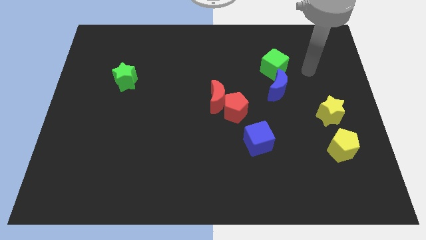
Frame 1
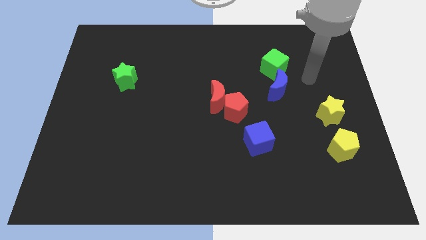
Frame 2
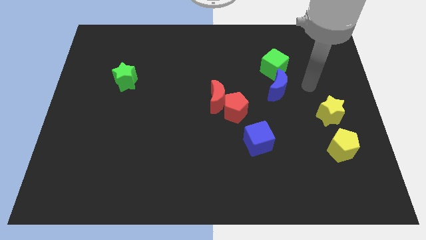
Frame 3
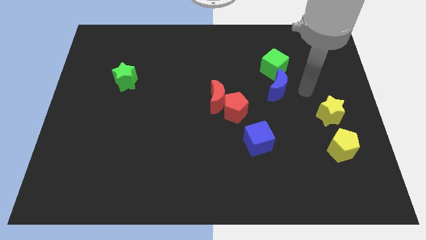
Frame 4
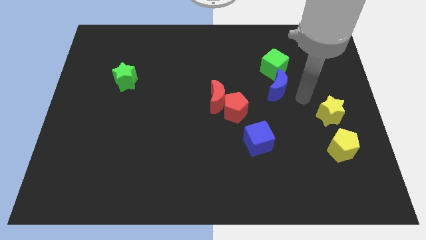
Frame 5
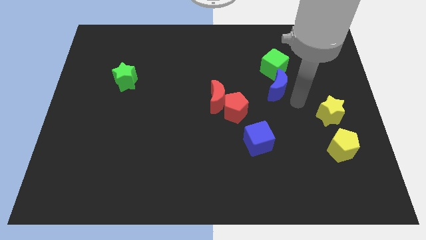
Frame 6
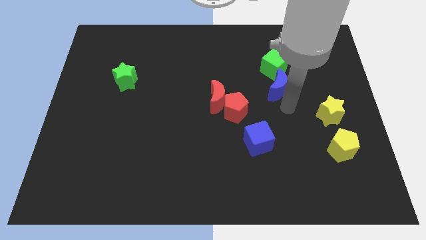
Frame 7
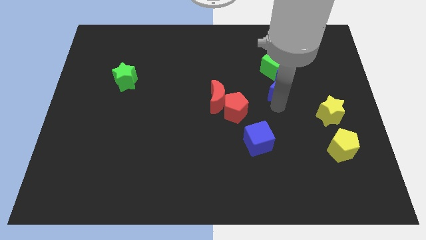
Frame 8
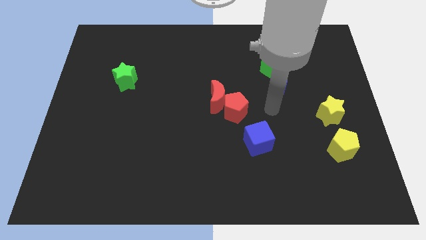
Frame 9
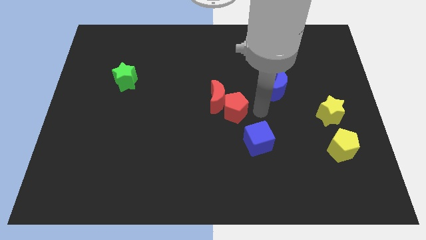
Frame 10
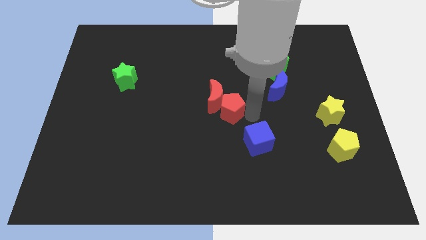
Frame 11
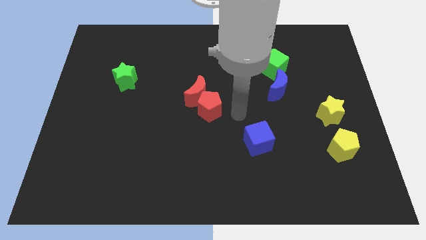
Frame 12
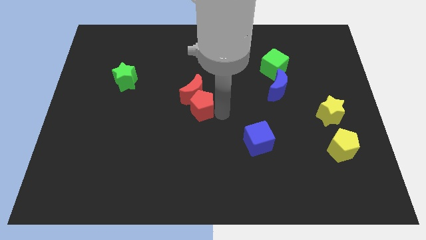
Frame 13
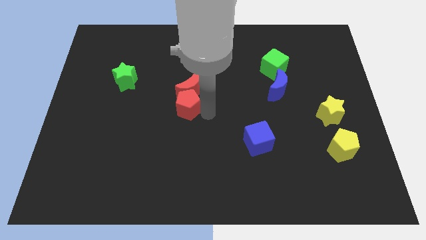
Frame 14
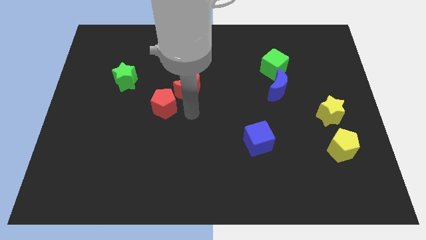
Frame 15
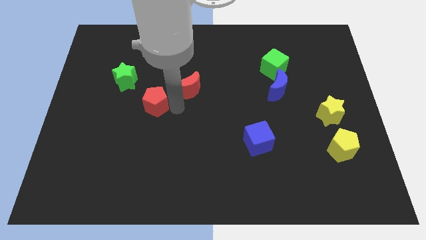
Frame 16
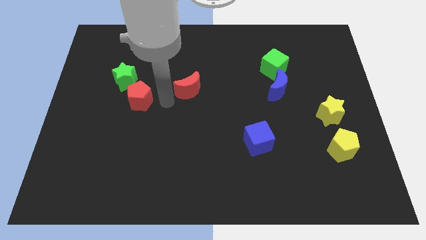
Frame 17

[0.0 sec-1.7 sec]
separate the red moon from the red pentagon

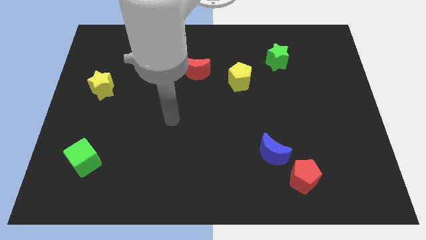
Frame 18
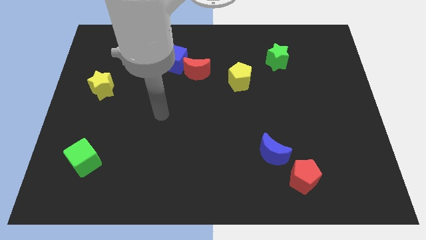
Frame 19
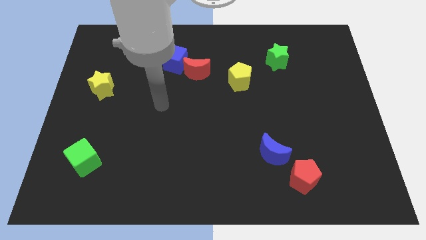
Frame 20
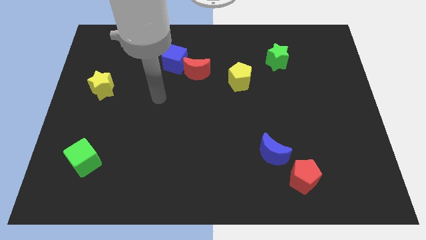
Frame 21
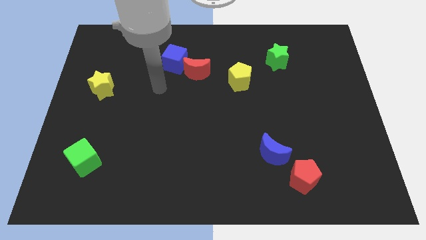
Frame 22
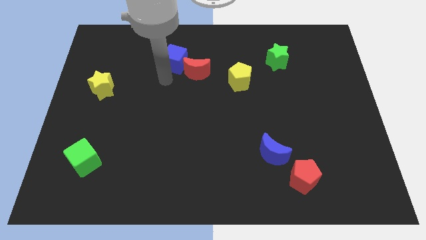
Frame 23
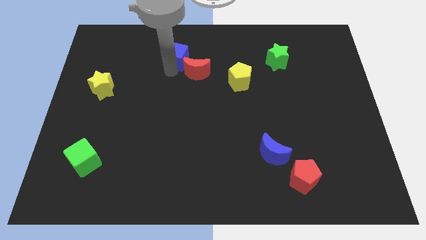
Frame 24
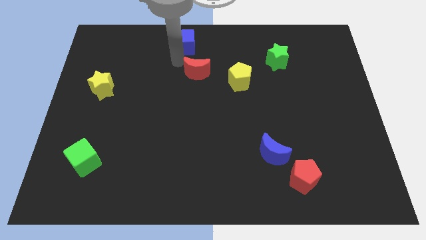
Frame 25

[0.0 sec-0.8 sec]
separate the red moon from the blue cube

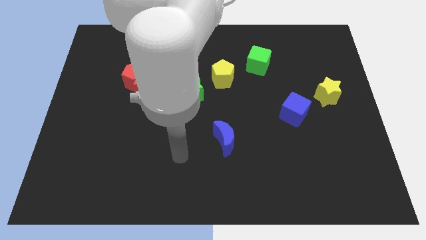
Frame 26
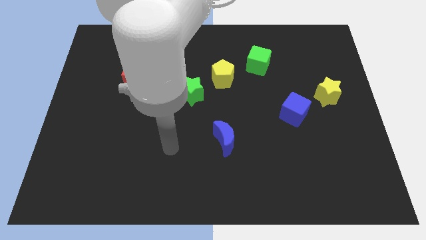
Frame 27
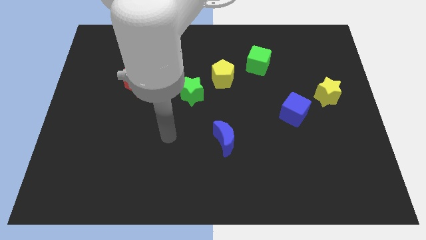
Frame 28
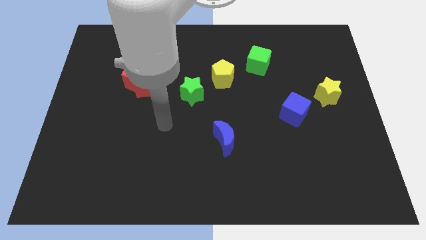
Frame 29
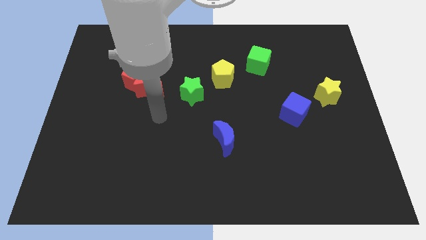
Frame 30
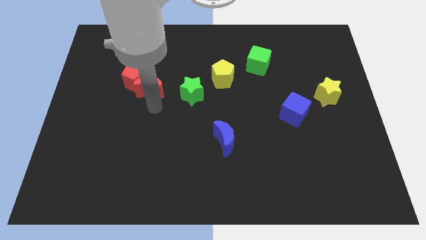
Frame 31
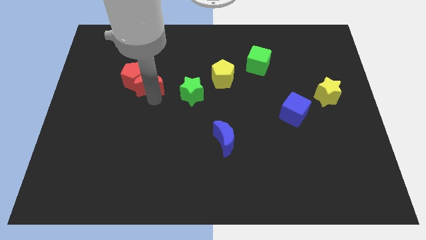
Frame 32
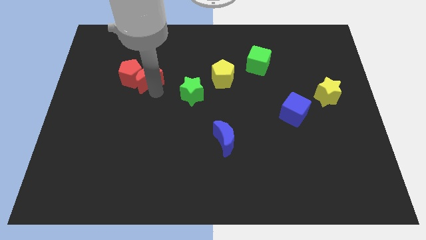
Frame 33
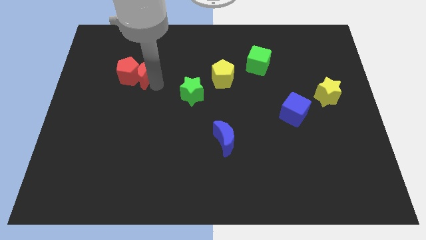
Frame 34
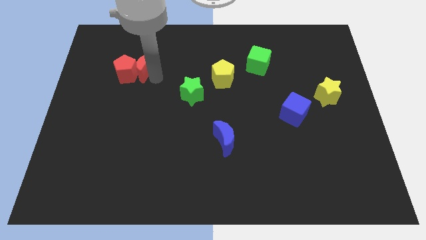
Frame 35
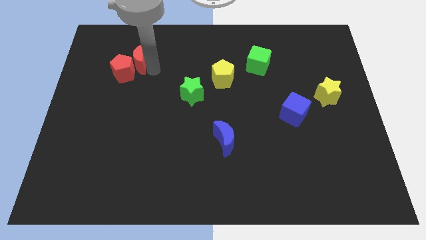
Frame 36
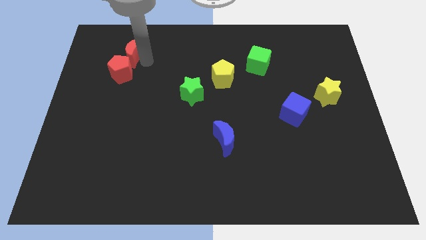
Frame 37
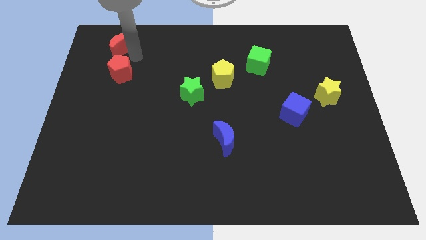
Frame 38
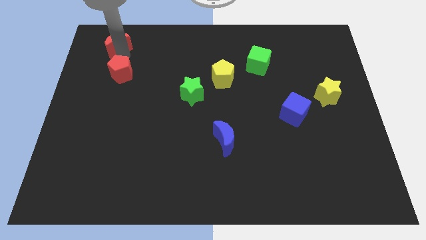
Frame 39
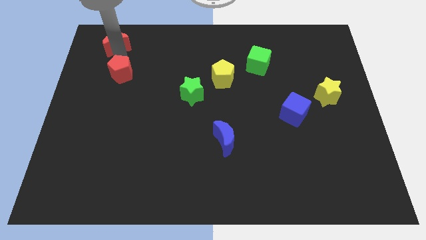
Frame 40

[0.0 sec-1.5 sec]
separate the red pentagon from the red moon

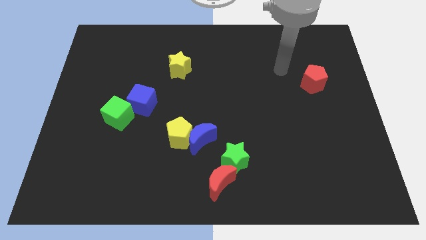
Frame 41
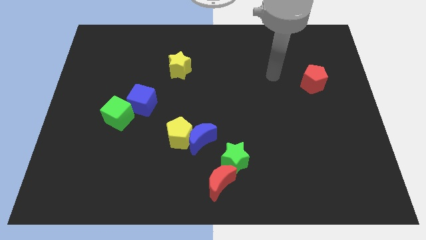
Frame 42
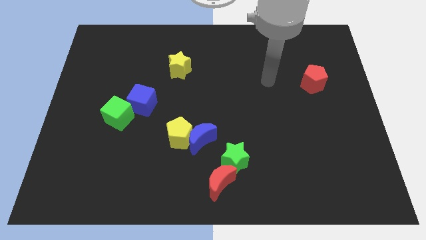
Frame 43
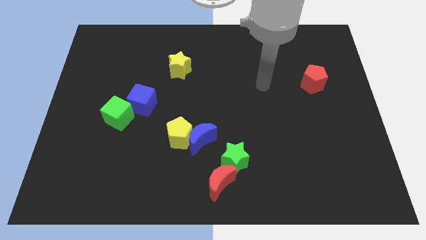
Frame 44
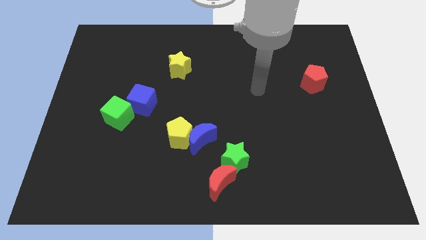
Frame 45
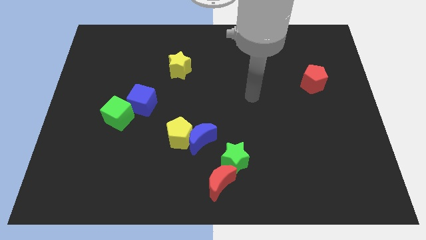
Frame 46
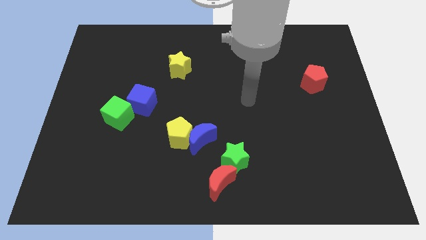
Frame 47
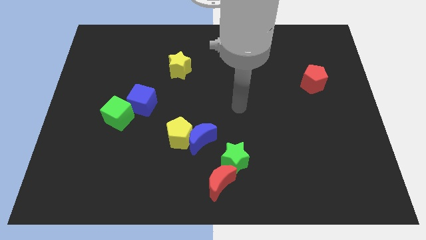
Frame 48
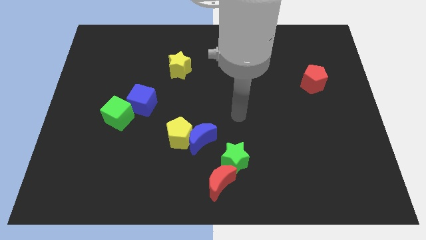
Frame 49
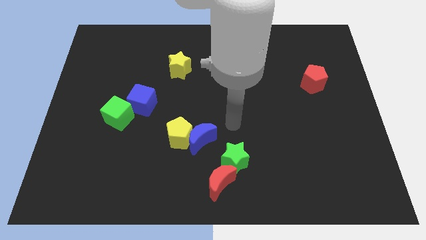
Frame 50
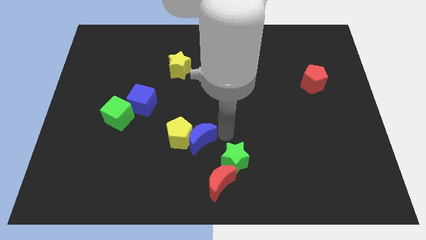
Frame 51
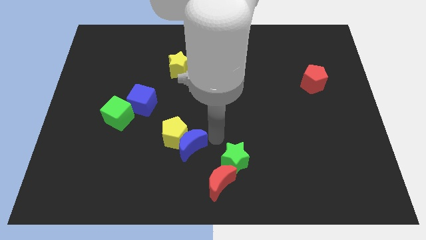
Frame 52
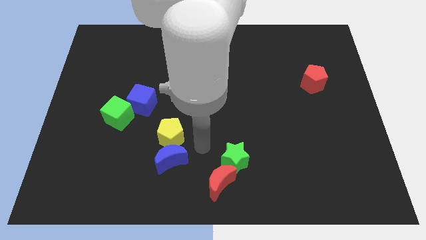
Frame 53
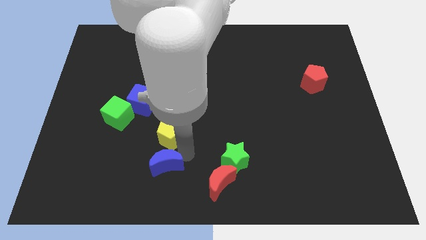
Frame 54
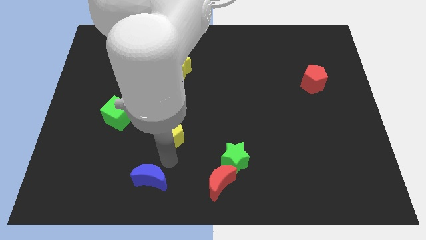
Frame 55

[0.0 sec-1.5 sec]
separate the yellow pentagon from the blue moon

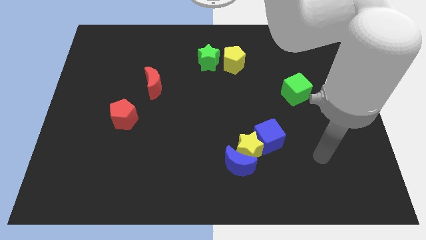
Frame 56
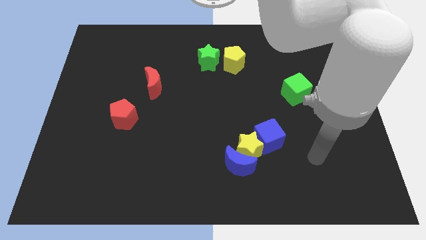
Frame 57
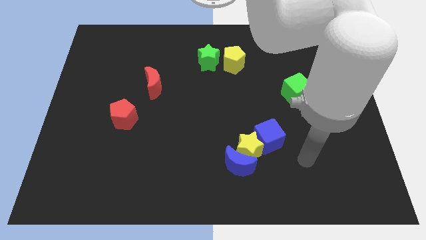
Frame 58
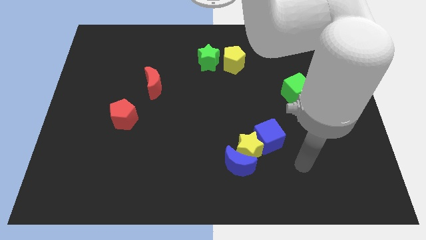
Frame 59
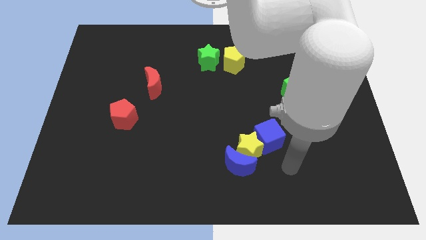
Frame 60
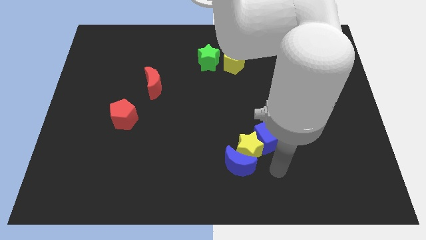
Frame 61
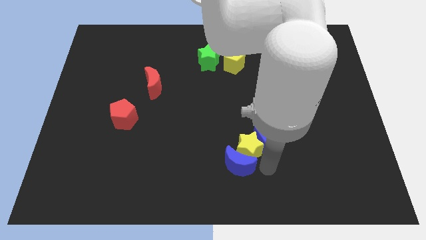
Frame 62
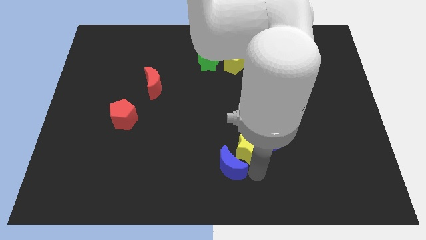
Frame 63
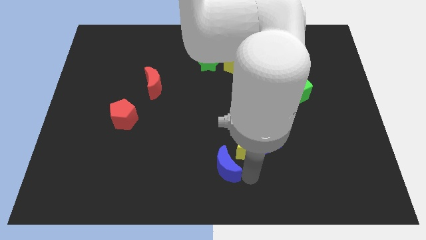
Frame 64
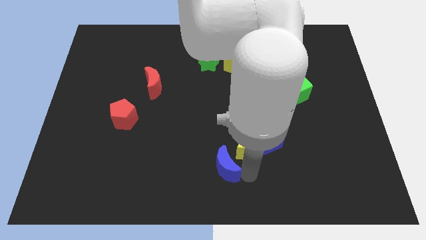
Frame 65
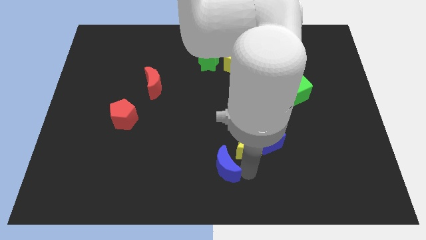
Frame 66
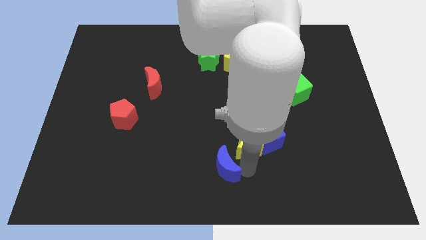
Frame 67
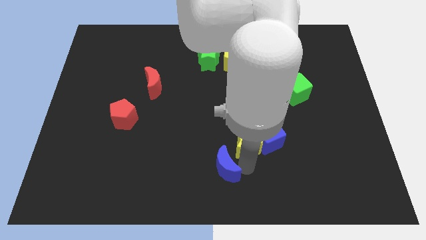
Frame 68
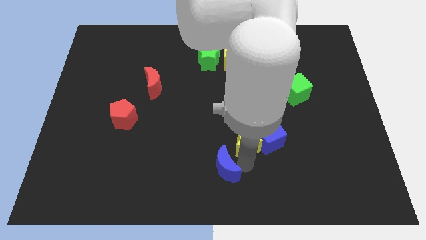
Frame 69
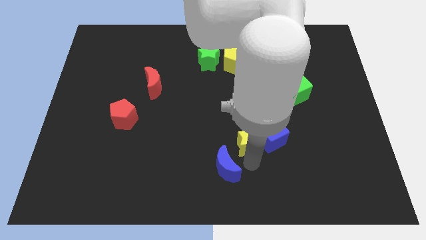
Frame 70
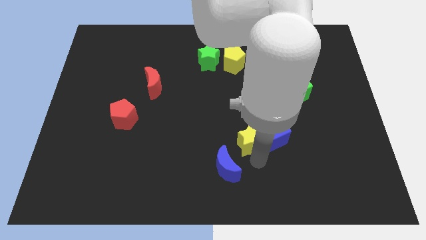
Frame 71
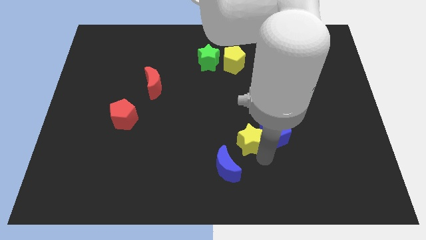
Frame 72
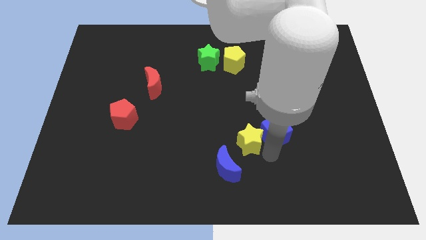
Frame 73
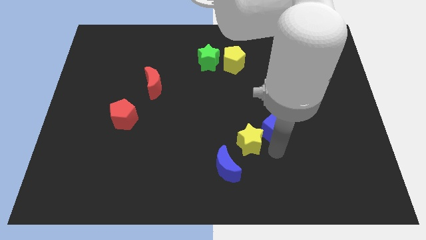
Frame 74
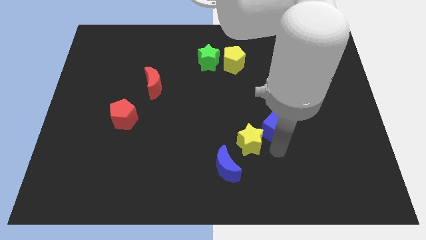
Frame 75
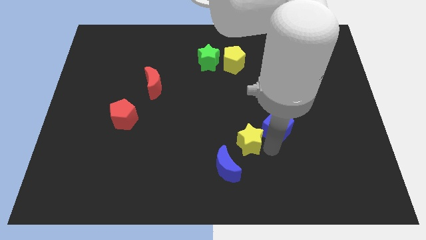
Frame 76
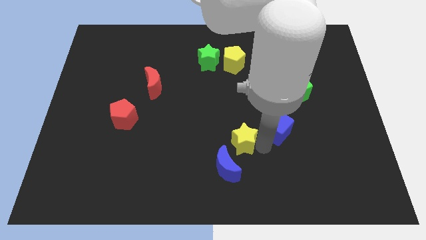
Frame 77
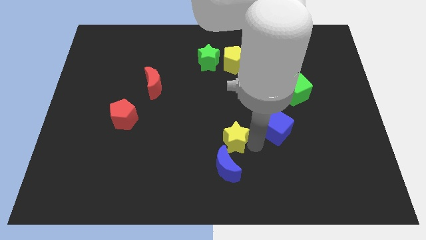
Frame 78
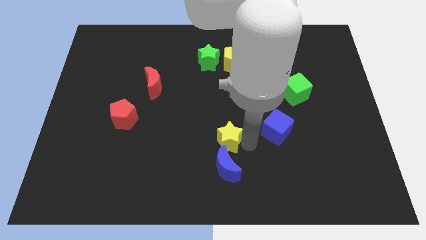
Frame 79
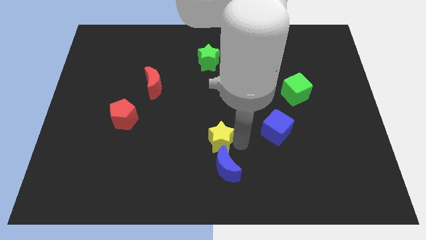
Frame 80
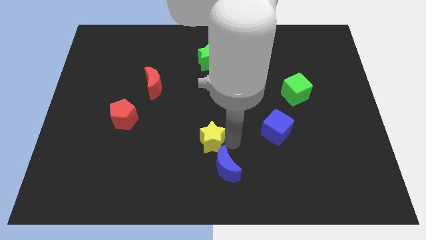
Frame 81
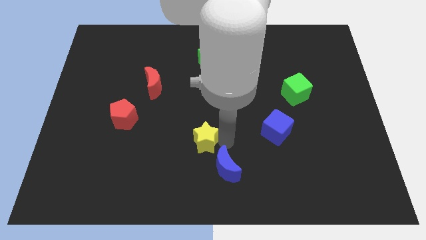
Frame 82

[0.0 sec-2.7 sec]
move the yellow star away from the blue moon and blue cube

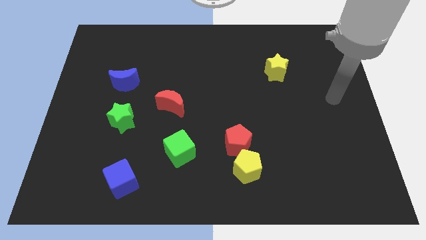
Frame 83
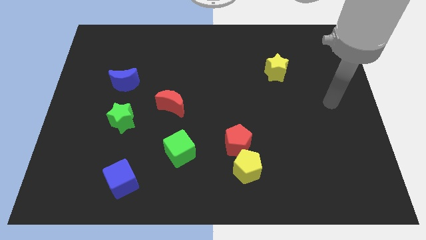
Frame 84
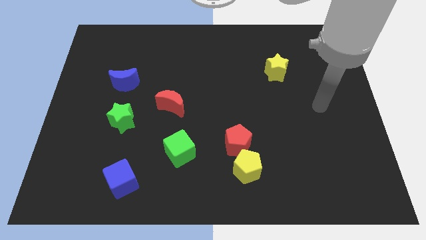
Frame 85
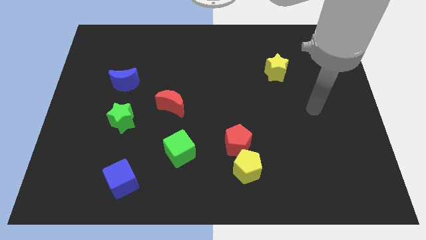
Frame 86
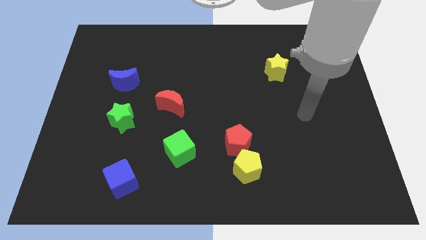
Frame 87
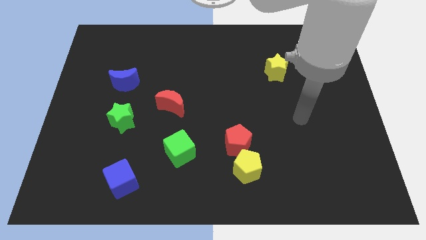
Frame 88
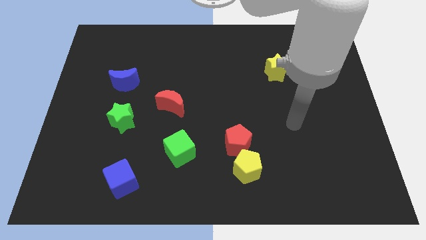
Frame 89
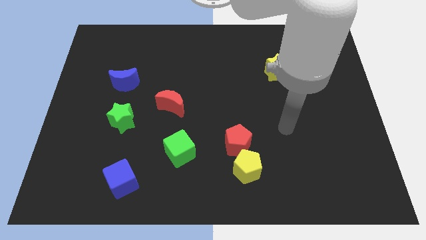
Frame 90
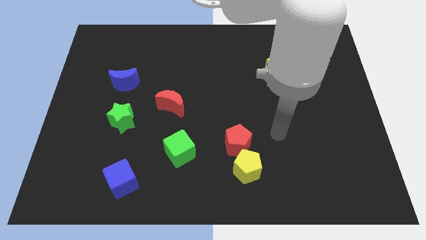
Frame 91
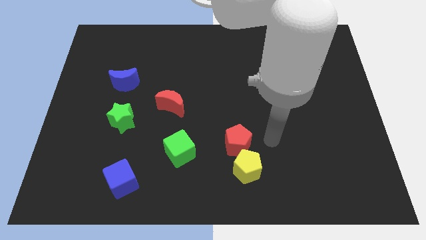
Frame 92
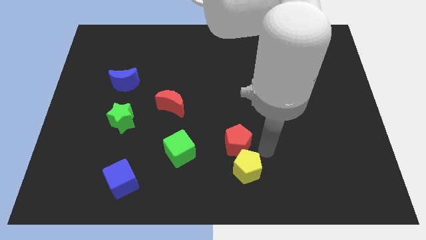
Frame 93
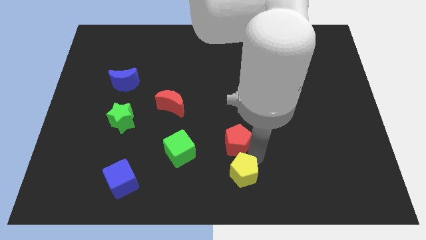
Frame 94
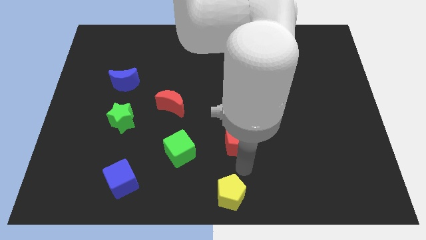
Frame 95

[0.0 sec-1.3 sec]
separate the red pentagon from the yellow pentagon

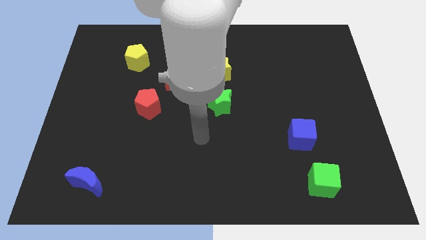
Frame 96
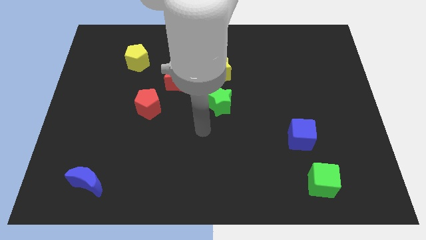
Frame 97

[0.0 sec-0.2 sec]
pull the green star apart from the yellow star
